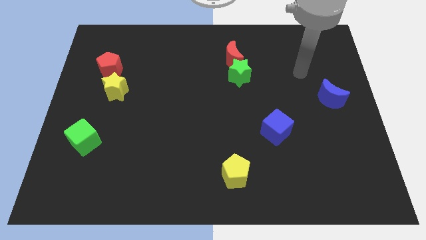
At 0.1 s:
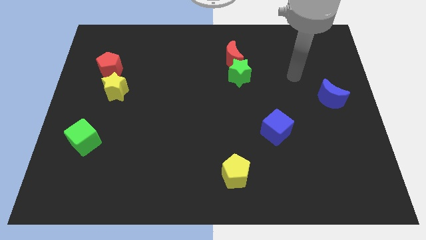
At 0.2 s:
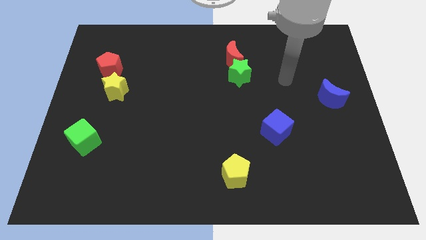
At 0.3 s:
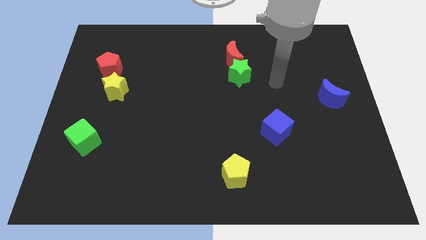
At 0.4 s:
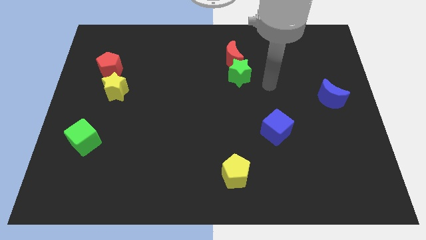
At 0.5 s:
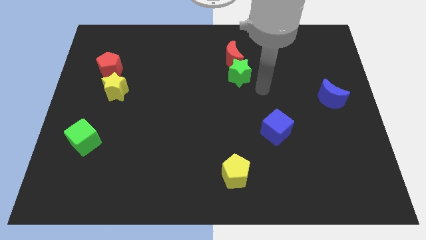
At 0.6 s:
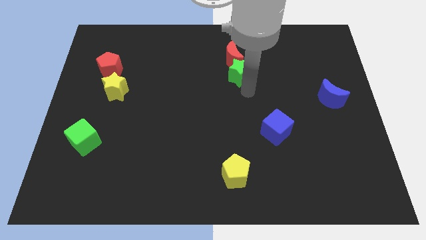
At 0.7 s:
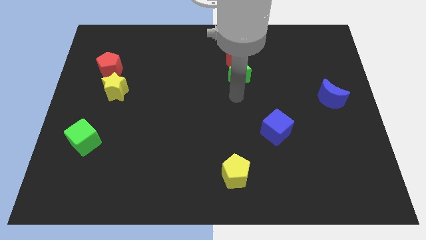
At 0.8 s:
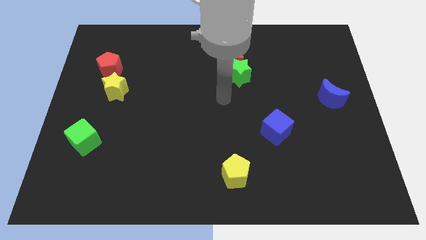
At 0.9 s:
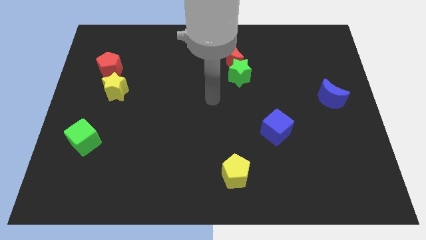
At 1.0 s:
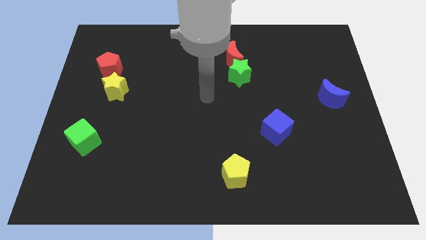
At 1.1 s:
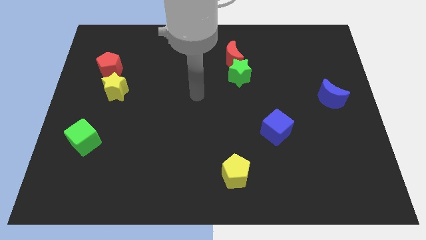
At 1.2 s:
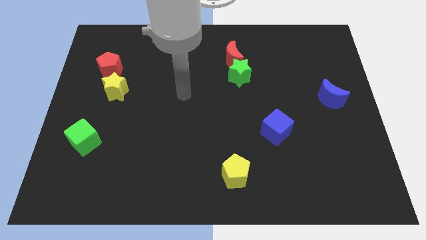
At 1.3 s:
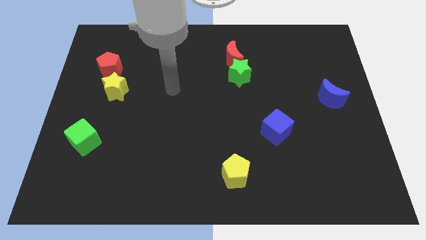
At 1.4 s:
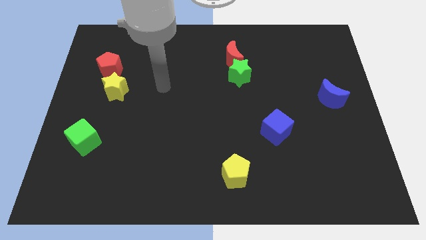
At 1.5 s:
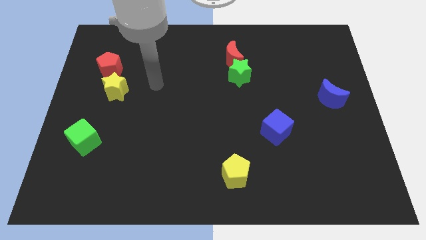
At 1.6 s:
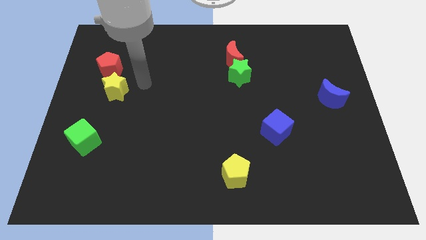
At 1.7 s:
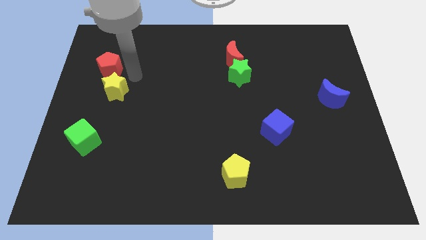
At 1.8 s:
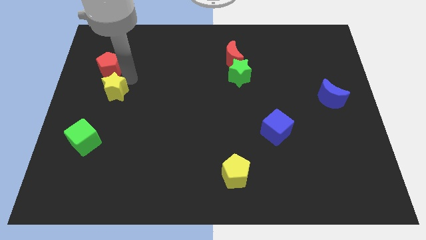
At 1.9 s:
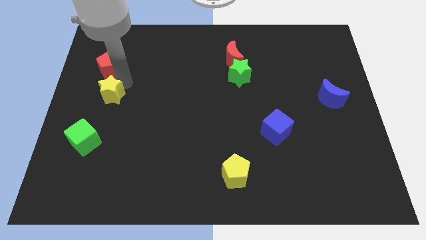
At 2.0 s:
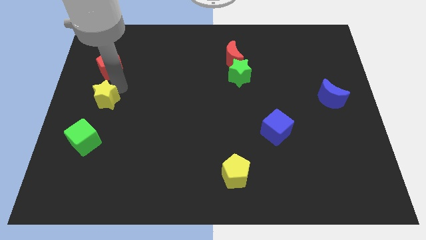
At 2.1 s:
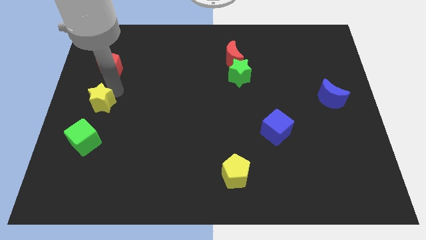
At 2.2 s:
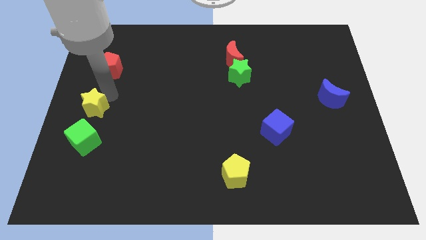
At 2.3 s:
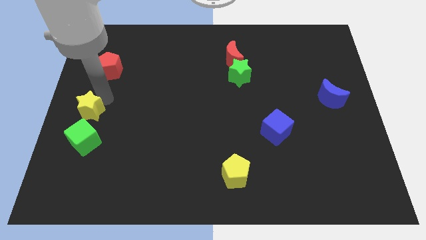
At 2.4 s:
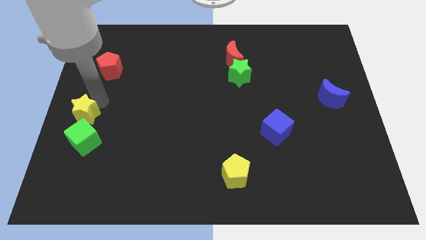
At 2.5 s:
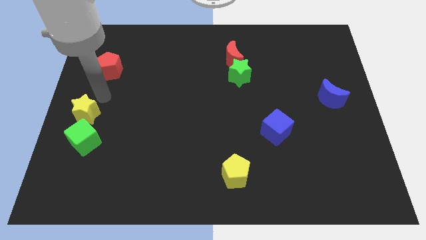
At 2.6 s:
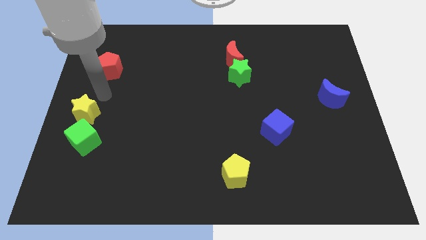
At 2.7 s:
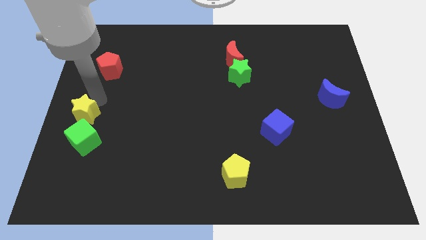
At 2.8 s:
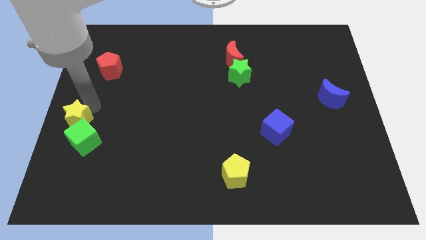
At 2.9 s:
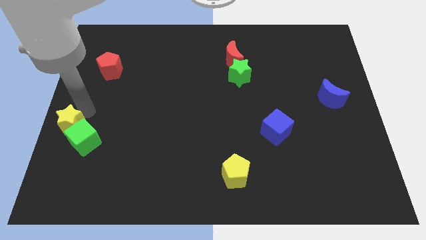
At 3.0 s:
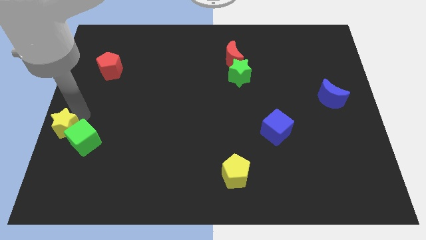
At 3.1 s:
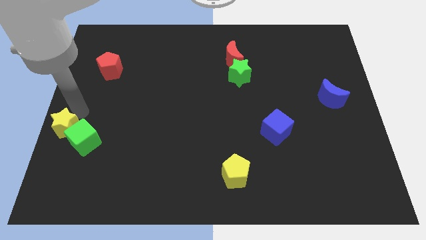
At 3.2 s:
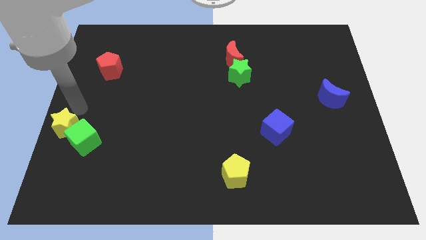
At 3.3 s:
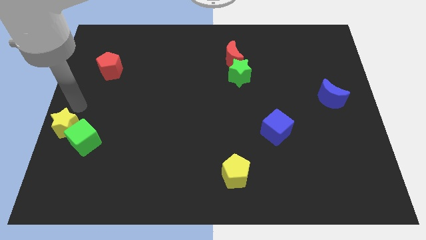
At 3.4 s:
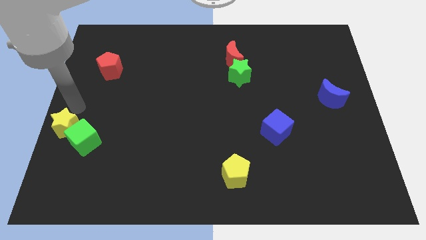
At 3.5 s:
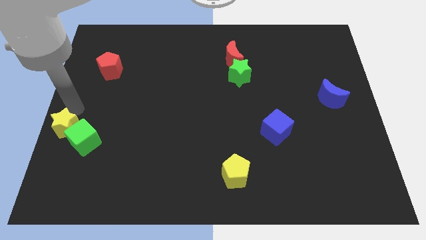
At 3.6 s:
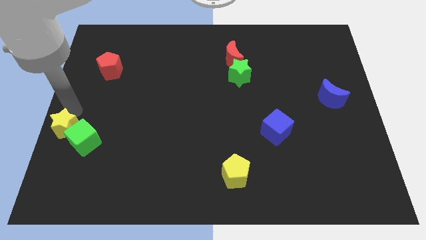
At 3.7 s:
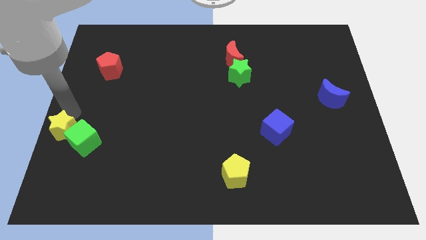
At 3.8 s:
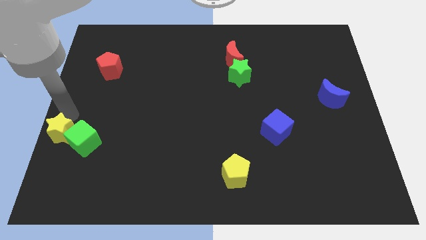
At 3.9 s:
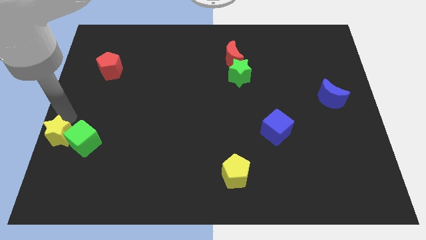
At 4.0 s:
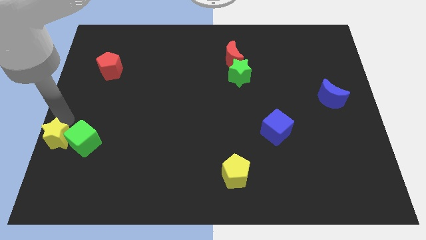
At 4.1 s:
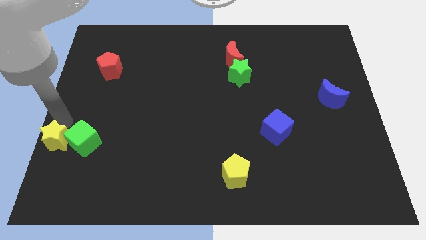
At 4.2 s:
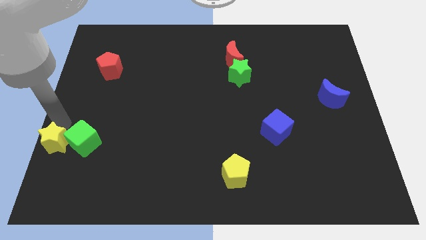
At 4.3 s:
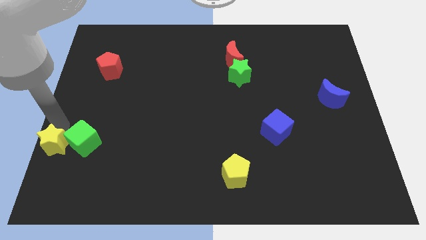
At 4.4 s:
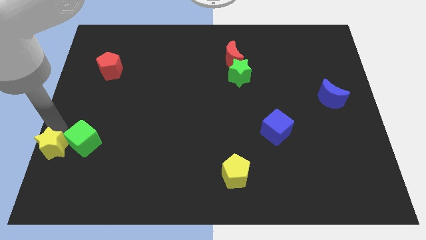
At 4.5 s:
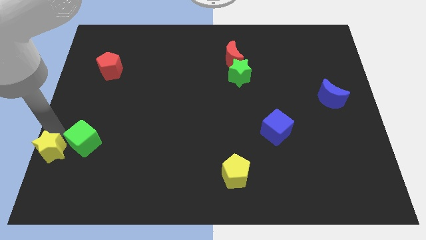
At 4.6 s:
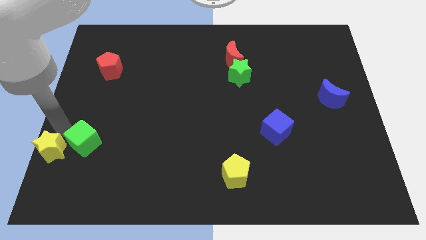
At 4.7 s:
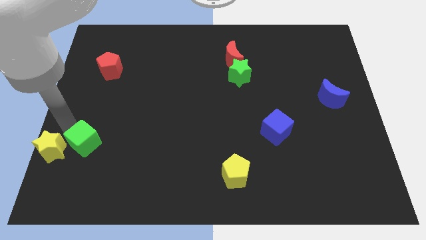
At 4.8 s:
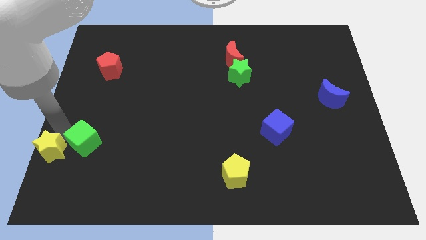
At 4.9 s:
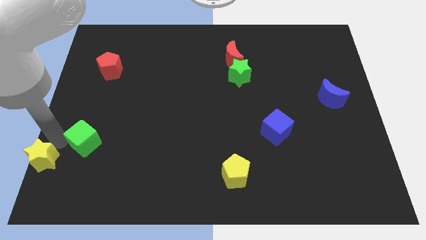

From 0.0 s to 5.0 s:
put the yellow star to the bottom left
